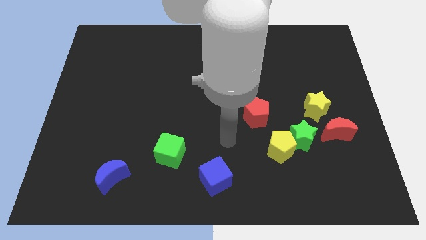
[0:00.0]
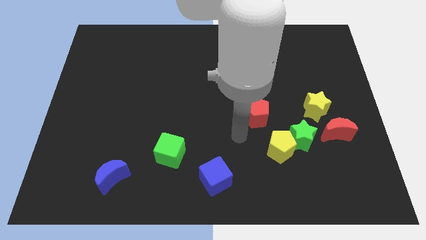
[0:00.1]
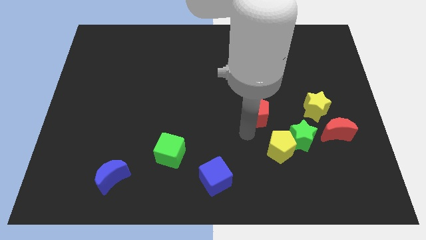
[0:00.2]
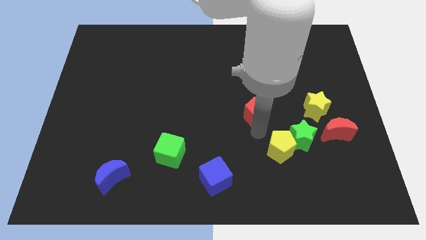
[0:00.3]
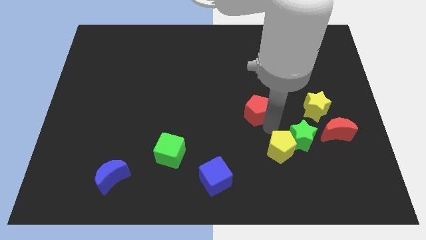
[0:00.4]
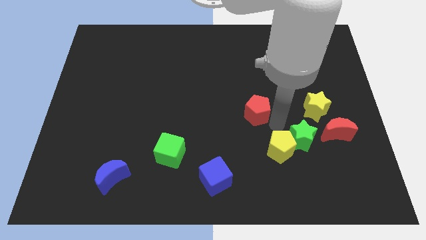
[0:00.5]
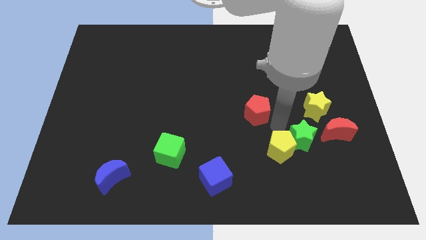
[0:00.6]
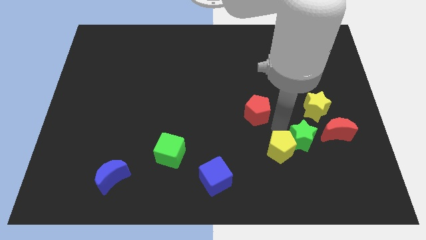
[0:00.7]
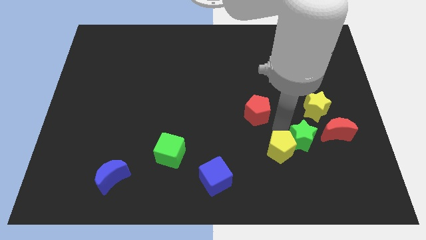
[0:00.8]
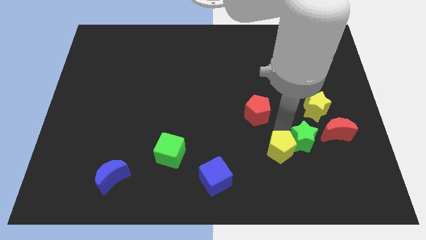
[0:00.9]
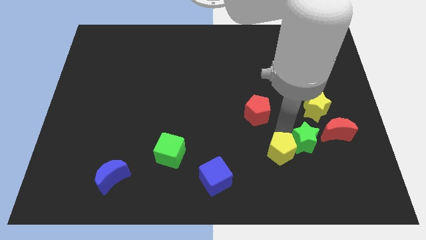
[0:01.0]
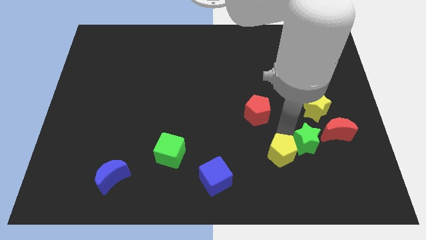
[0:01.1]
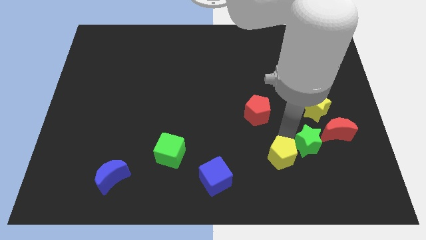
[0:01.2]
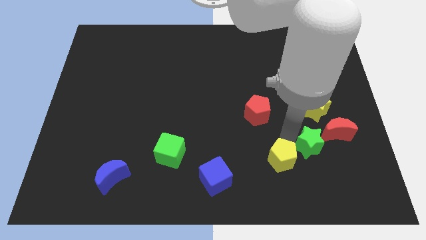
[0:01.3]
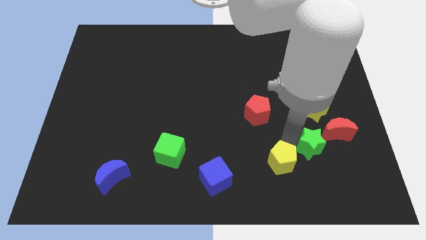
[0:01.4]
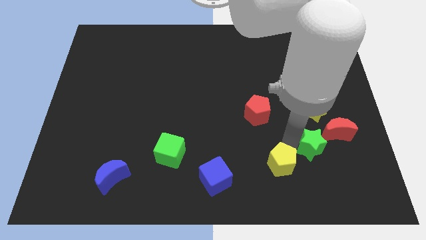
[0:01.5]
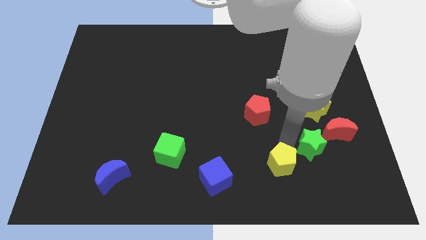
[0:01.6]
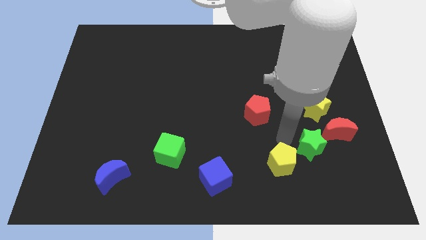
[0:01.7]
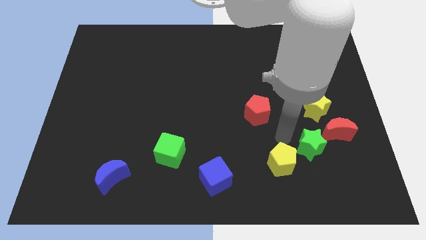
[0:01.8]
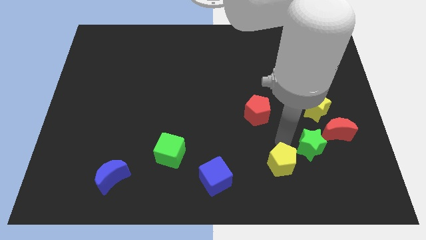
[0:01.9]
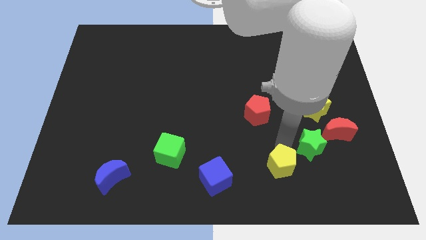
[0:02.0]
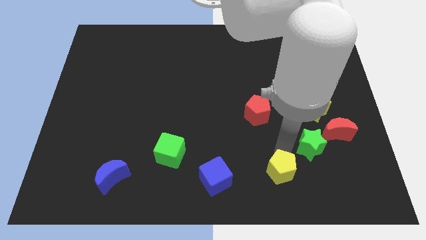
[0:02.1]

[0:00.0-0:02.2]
pull the yellow pentagon apart from the green star and red pentagon

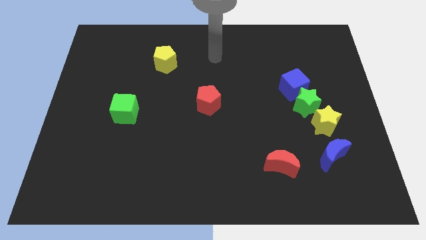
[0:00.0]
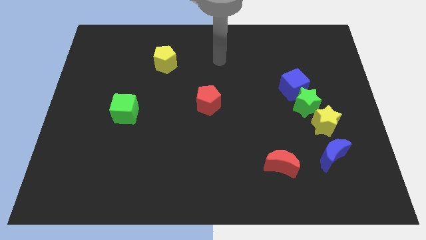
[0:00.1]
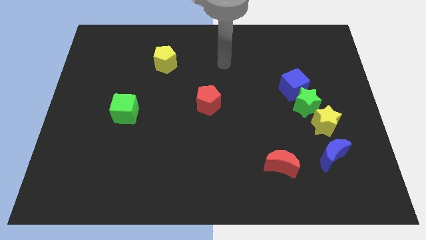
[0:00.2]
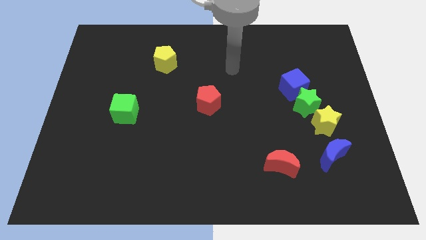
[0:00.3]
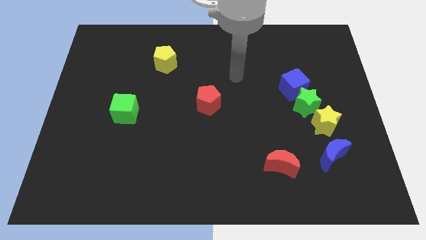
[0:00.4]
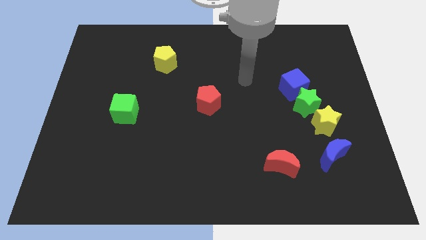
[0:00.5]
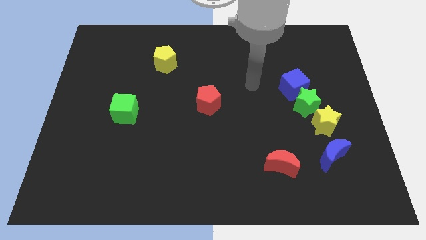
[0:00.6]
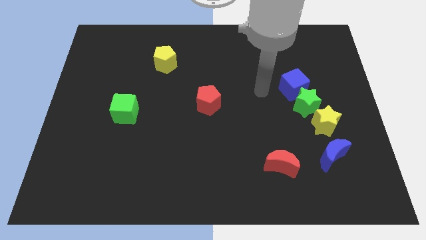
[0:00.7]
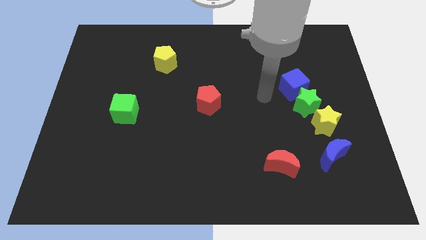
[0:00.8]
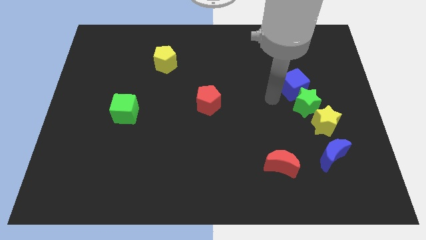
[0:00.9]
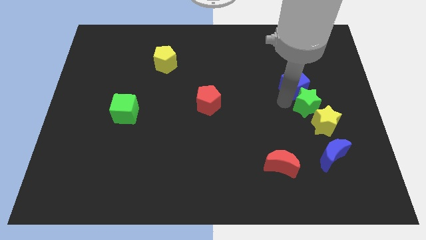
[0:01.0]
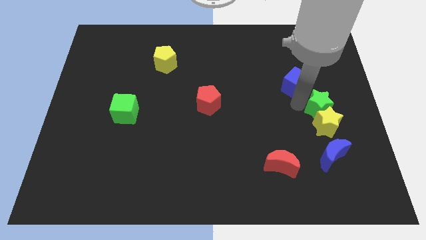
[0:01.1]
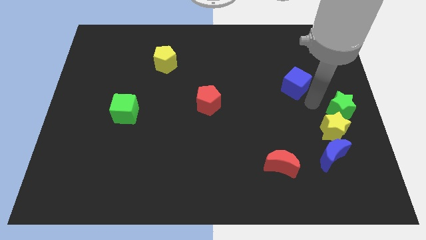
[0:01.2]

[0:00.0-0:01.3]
separate the blue cube from the green star

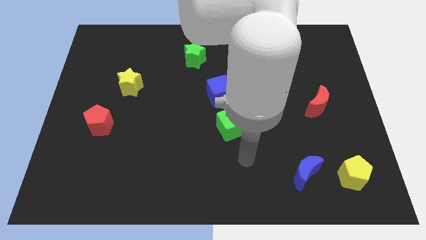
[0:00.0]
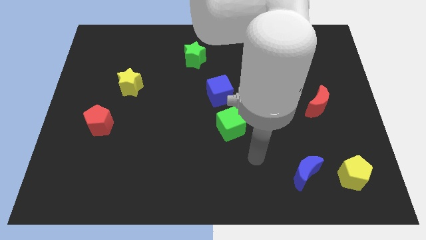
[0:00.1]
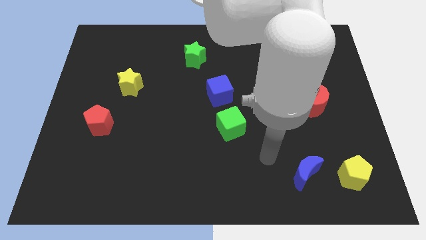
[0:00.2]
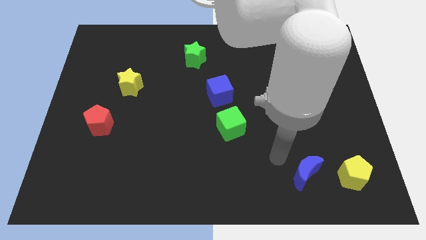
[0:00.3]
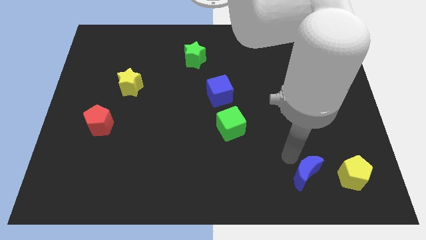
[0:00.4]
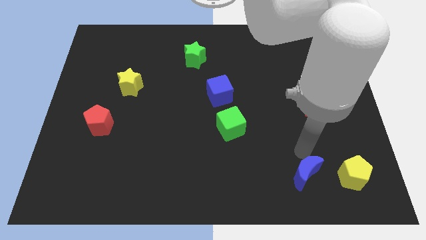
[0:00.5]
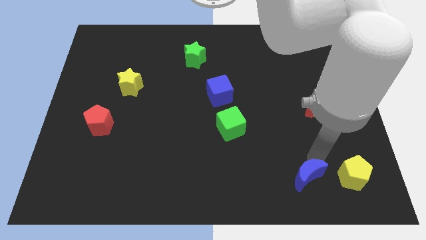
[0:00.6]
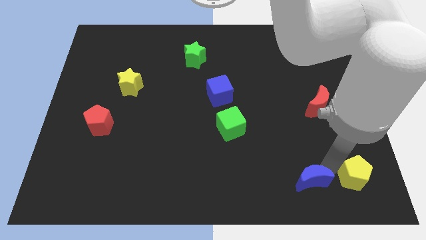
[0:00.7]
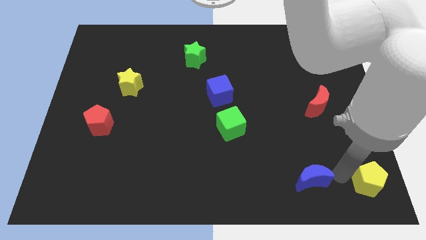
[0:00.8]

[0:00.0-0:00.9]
pull the blue moon apart from the yellow pentagon

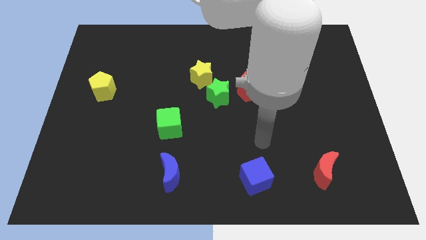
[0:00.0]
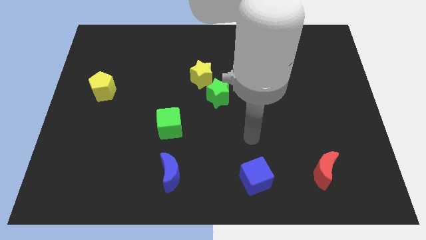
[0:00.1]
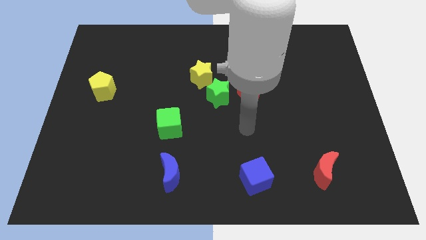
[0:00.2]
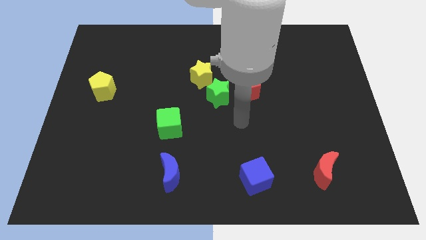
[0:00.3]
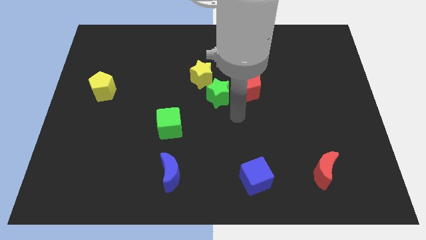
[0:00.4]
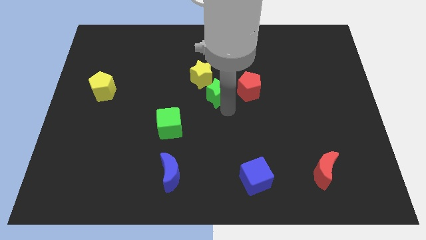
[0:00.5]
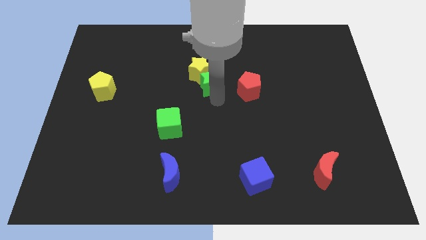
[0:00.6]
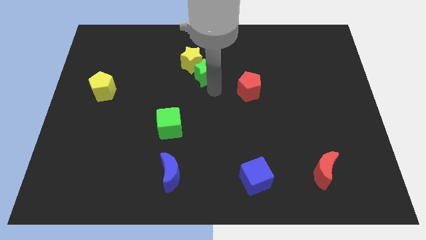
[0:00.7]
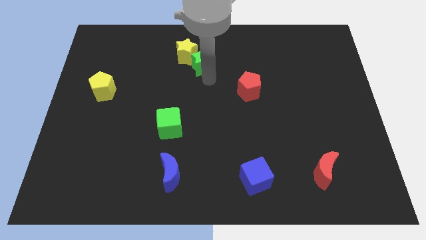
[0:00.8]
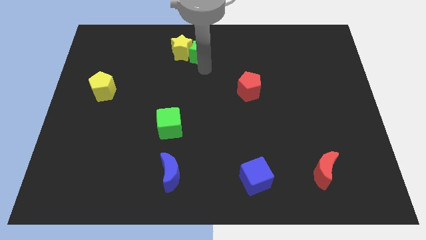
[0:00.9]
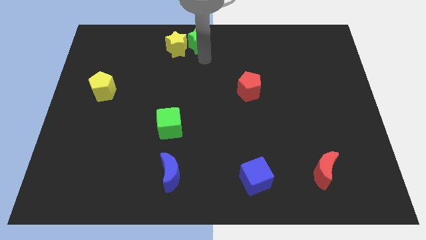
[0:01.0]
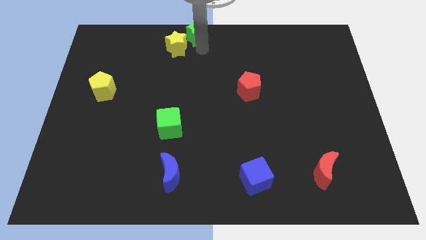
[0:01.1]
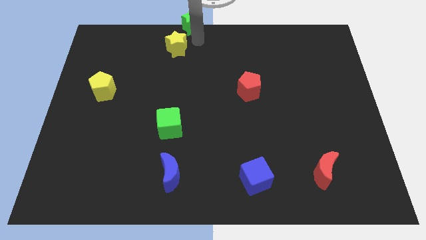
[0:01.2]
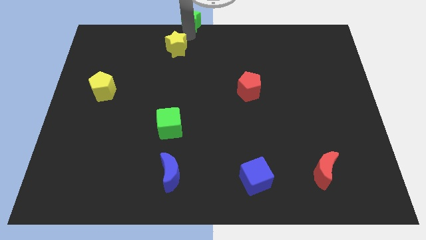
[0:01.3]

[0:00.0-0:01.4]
separate the yellow star from the green star

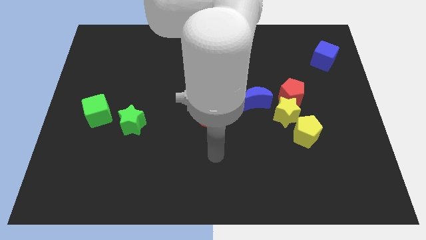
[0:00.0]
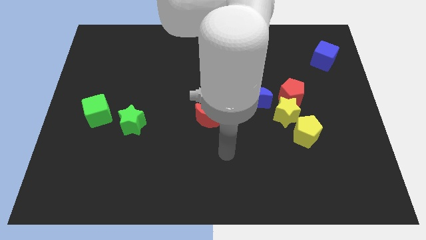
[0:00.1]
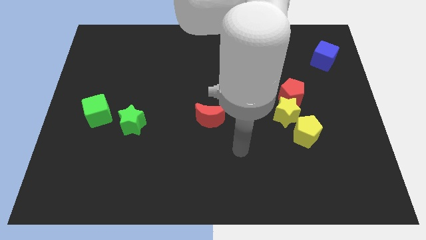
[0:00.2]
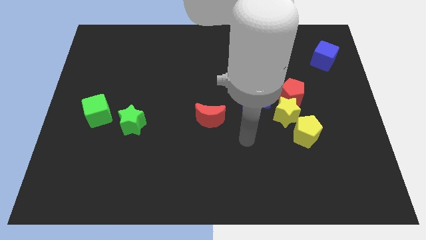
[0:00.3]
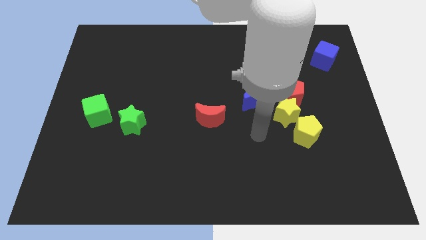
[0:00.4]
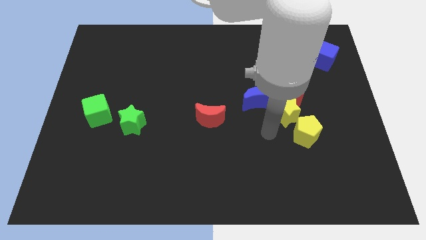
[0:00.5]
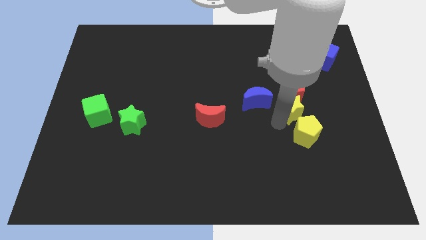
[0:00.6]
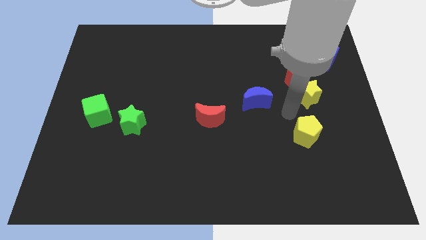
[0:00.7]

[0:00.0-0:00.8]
move the yellow pentagon away from the yellow star

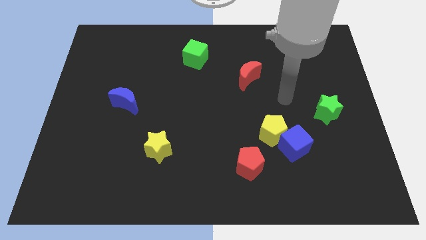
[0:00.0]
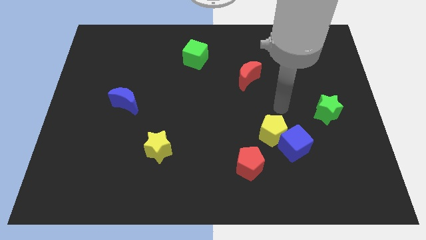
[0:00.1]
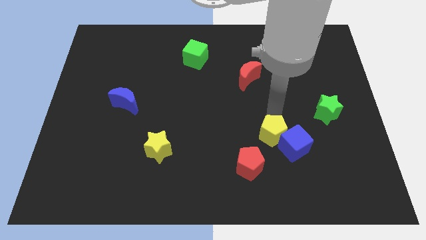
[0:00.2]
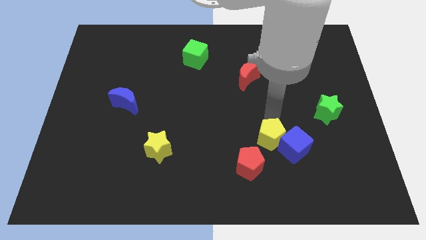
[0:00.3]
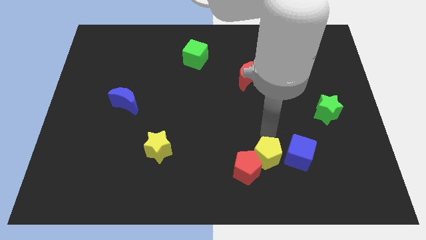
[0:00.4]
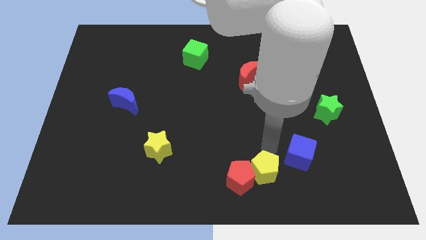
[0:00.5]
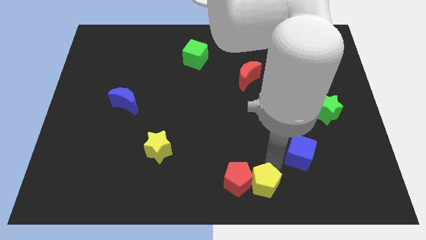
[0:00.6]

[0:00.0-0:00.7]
pull the blue cube apart from the yellow pentagon

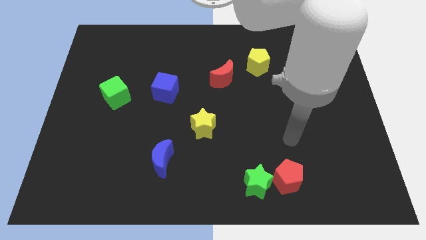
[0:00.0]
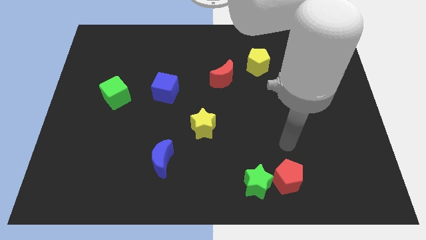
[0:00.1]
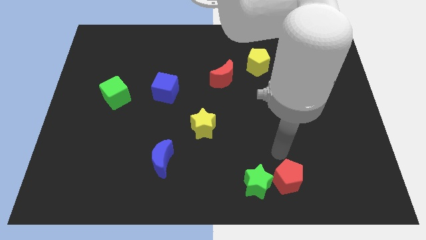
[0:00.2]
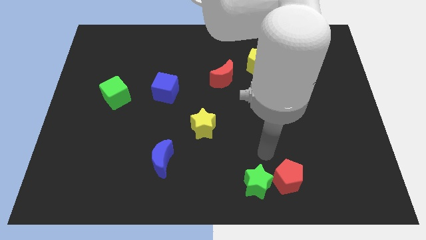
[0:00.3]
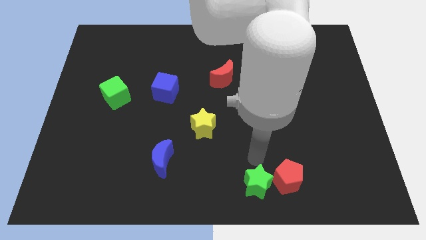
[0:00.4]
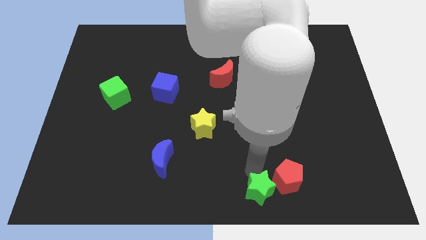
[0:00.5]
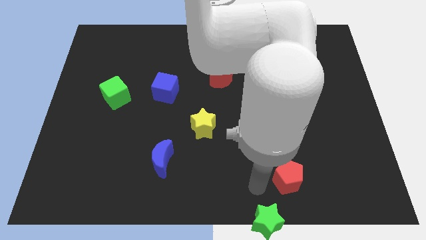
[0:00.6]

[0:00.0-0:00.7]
move the red pentagon away from the green star

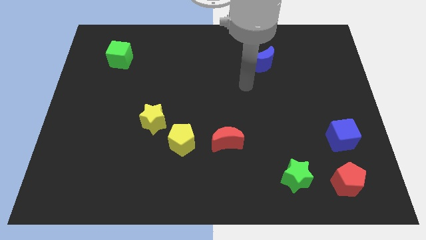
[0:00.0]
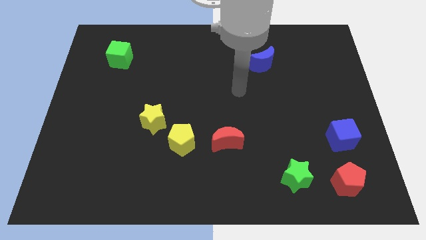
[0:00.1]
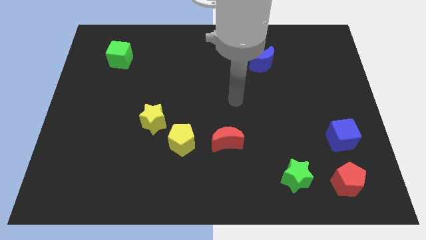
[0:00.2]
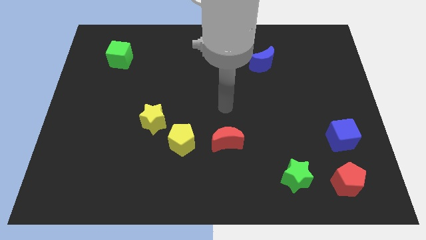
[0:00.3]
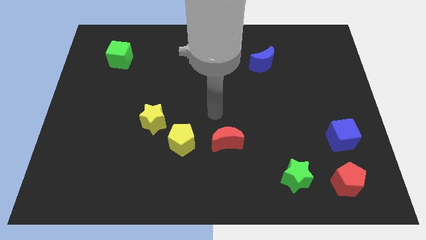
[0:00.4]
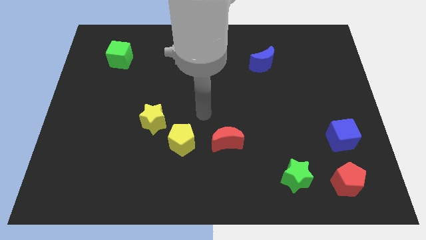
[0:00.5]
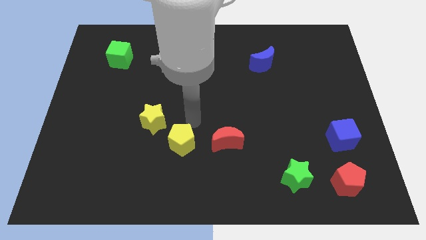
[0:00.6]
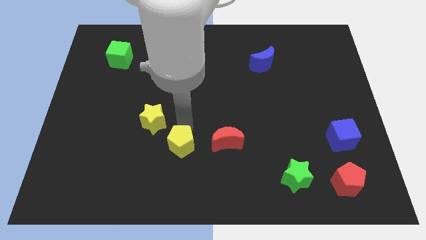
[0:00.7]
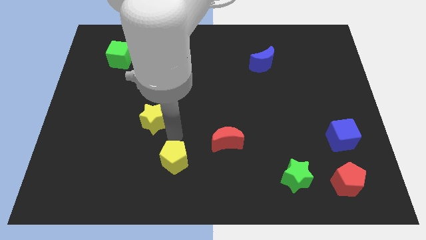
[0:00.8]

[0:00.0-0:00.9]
separate the yellow star from the yellow pentagon

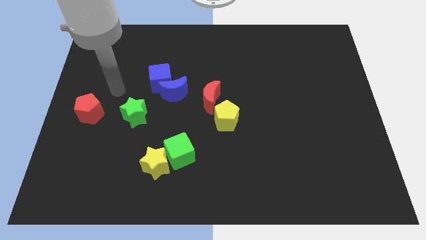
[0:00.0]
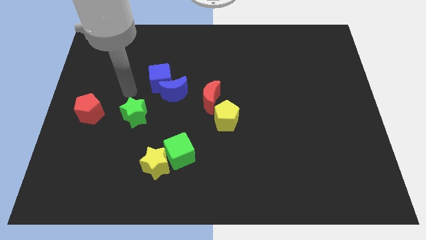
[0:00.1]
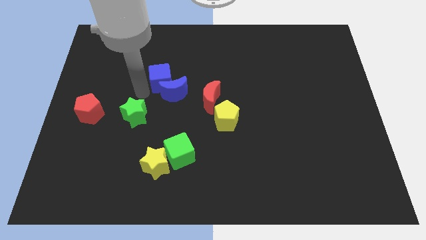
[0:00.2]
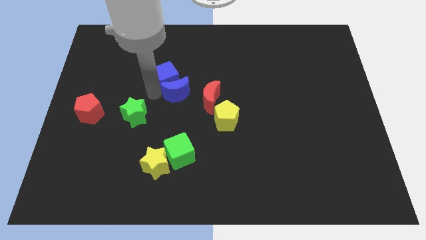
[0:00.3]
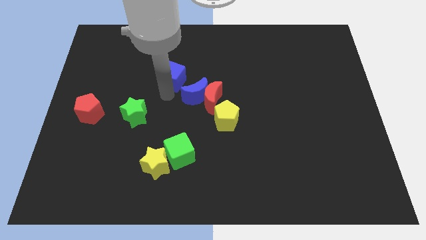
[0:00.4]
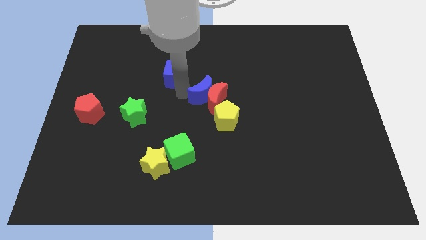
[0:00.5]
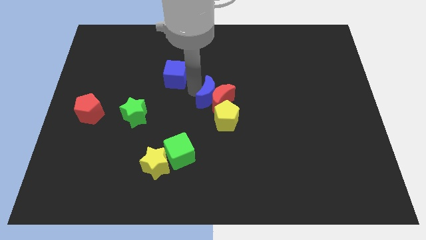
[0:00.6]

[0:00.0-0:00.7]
pull the blue cube apart from the blue moon
